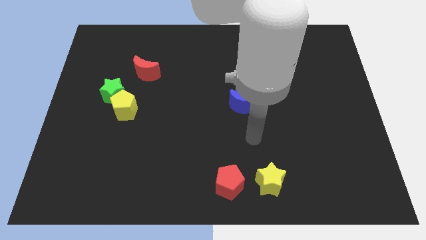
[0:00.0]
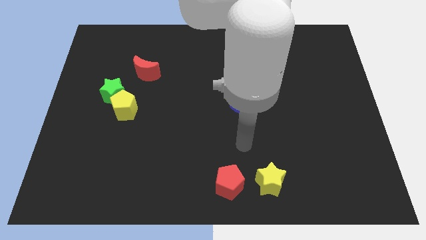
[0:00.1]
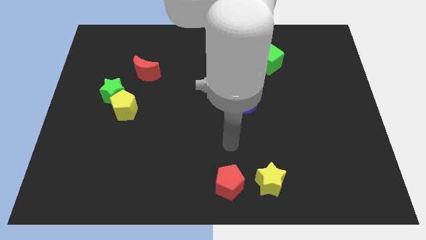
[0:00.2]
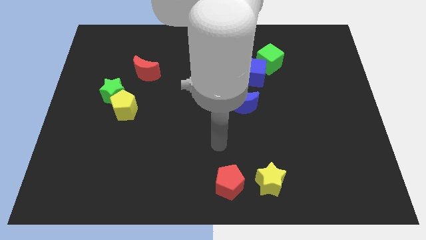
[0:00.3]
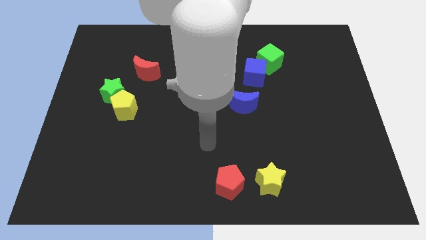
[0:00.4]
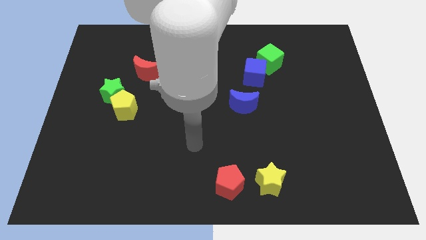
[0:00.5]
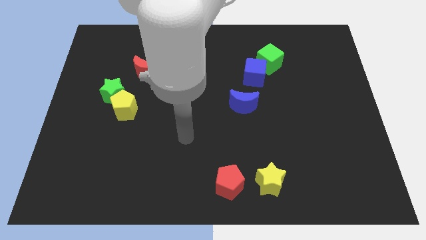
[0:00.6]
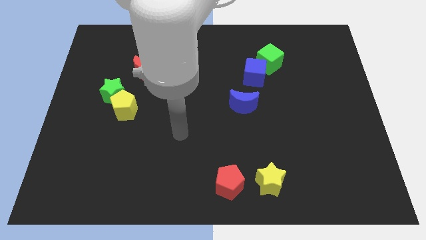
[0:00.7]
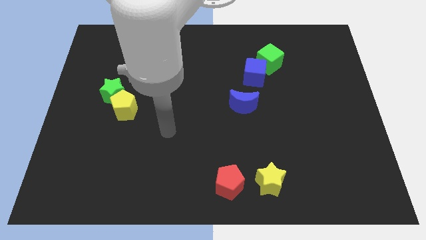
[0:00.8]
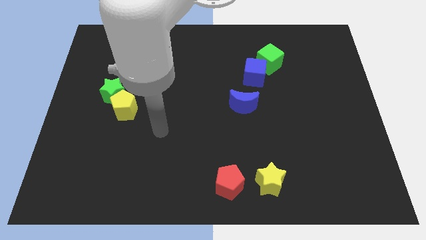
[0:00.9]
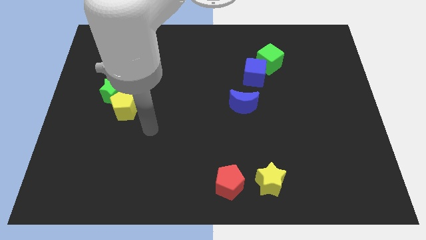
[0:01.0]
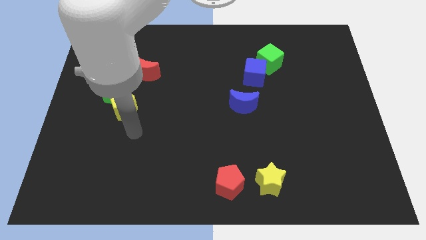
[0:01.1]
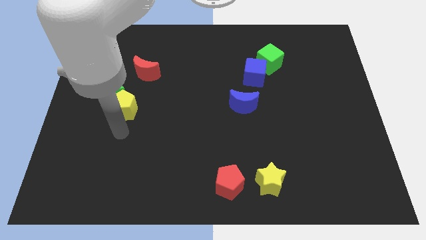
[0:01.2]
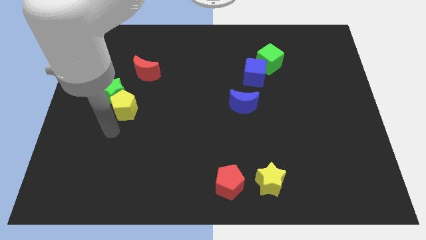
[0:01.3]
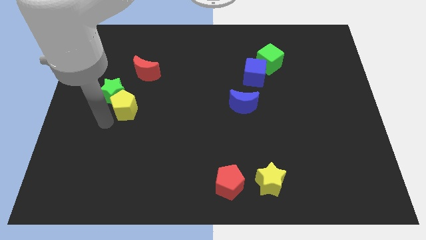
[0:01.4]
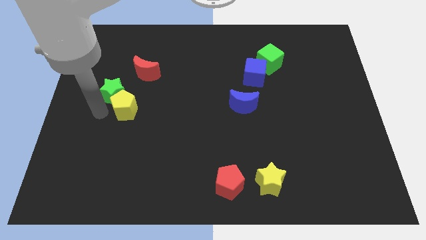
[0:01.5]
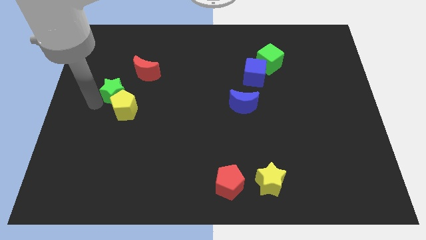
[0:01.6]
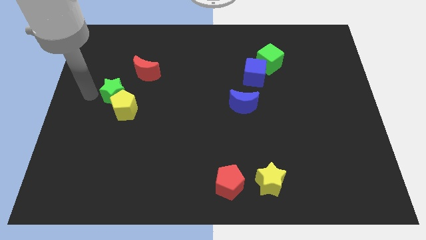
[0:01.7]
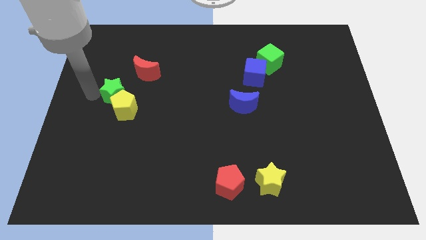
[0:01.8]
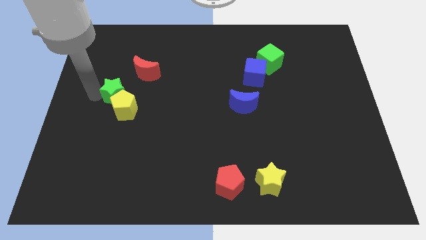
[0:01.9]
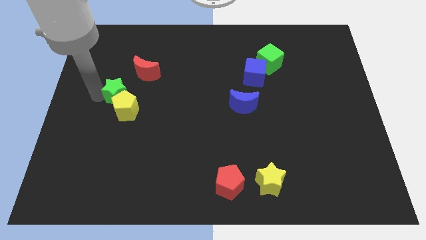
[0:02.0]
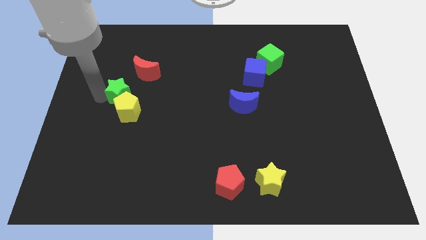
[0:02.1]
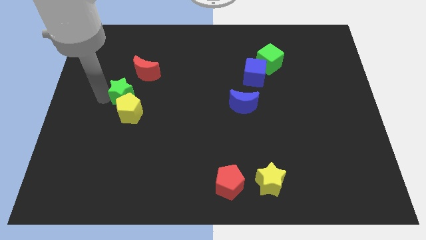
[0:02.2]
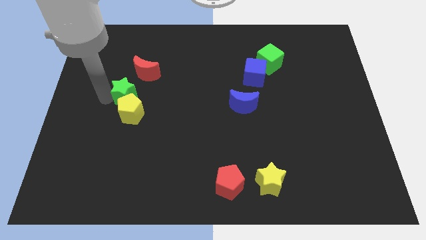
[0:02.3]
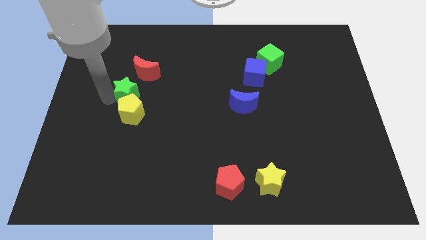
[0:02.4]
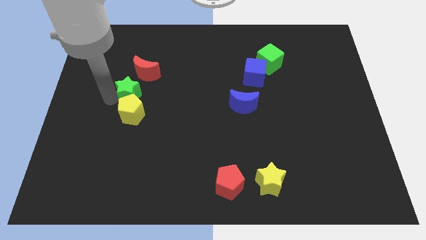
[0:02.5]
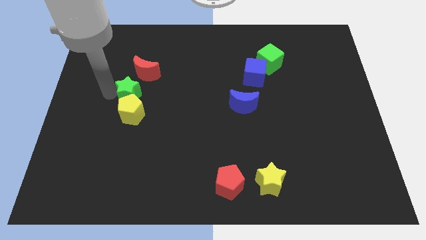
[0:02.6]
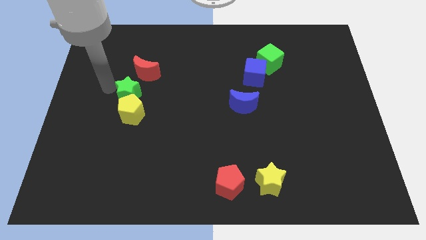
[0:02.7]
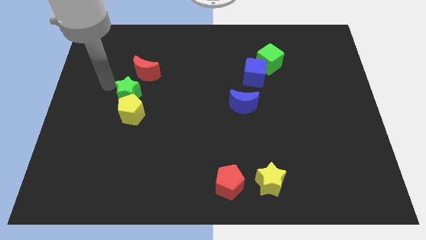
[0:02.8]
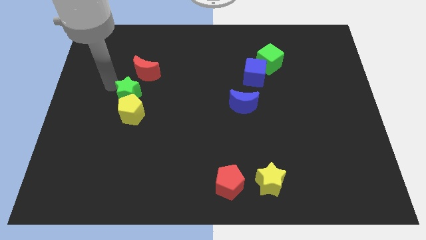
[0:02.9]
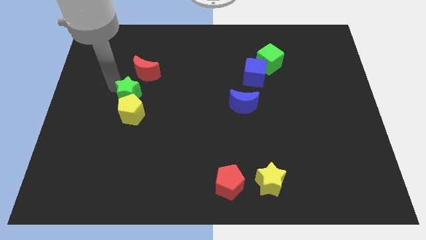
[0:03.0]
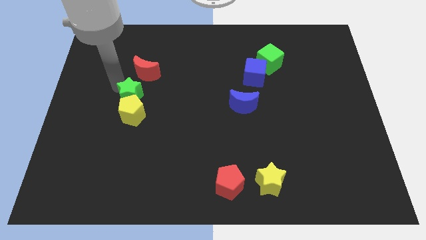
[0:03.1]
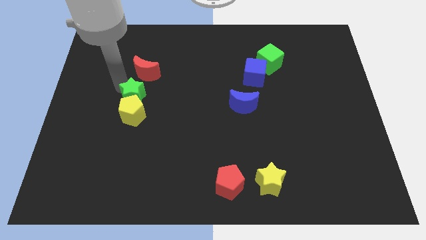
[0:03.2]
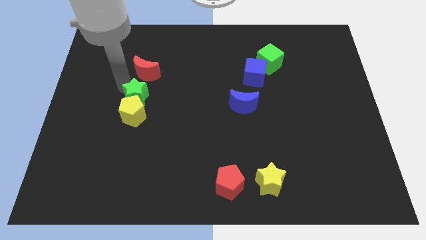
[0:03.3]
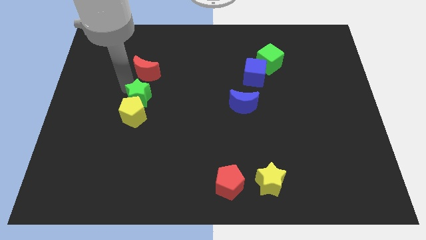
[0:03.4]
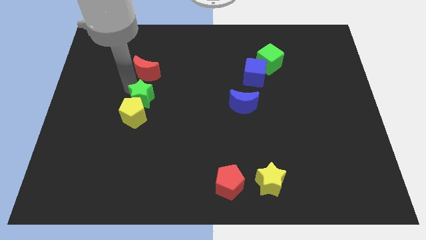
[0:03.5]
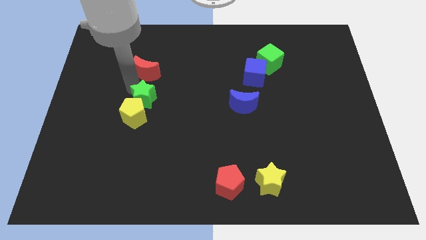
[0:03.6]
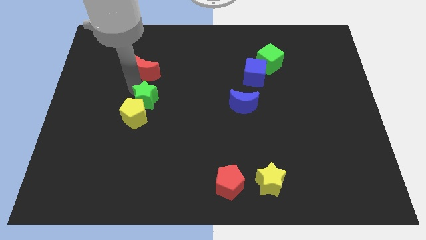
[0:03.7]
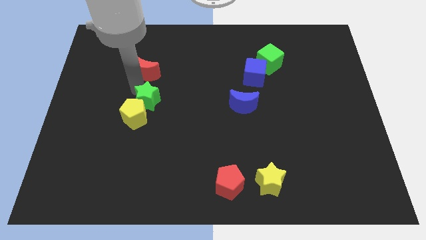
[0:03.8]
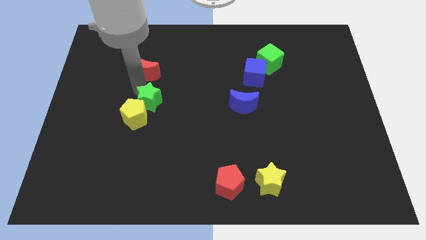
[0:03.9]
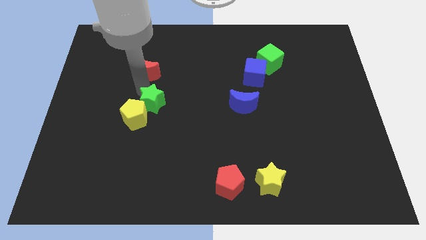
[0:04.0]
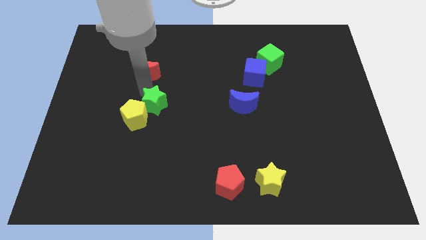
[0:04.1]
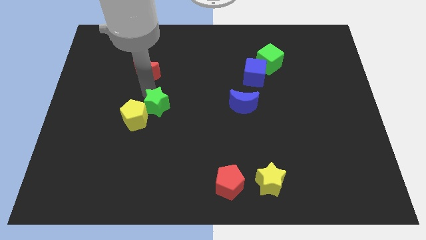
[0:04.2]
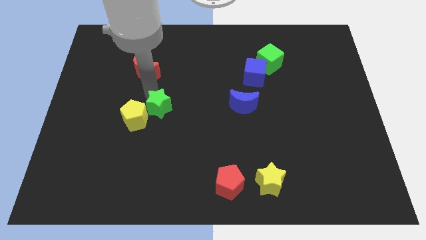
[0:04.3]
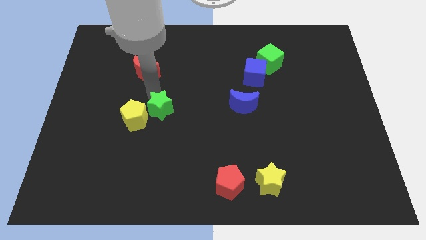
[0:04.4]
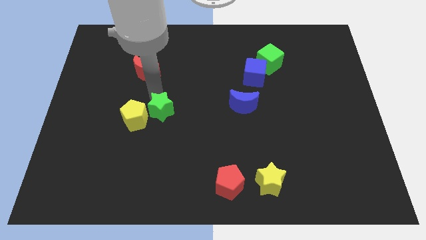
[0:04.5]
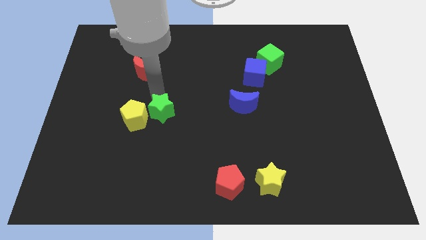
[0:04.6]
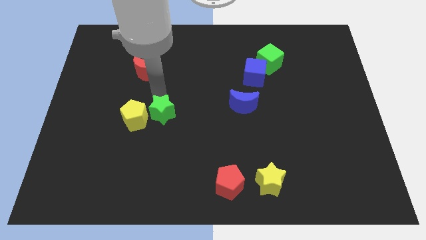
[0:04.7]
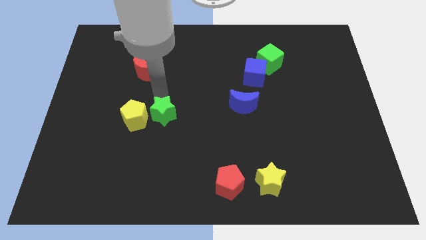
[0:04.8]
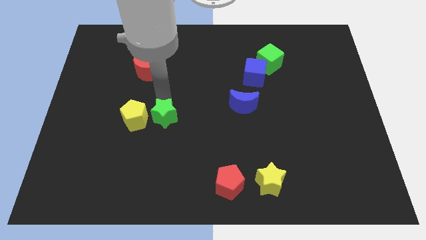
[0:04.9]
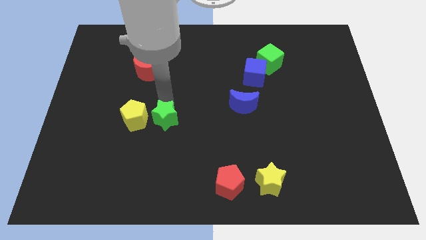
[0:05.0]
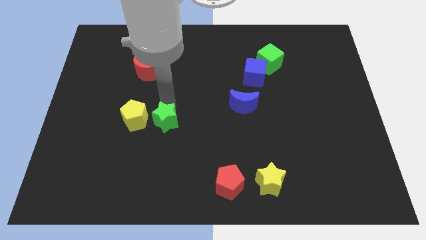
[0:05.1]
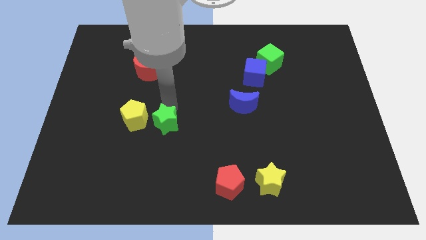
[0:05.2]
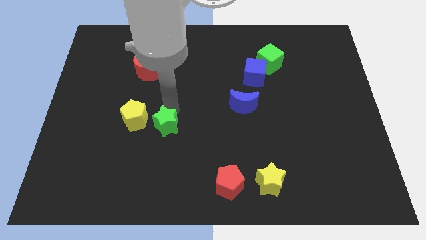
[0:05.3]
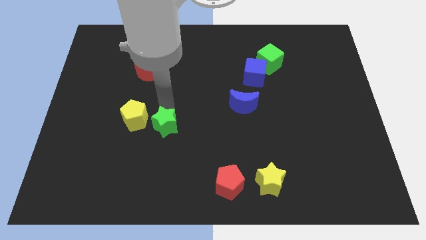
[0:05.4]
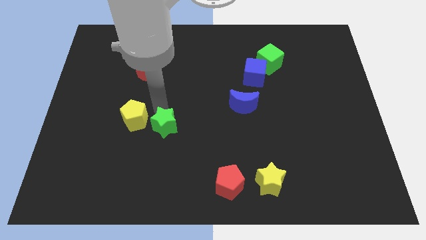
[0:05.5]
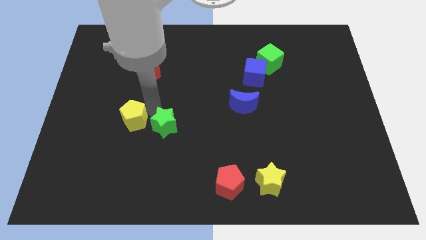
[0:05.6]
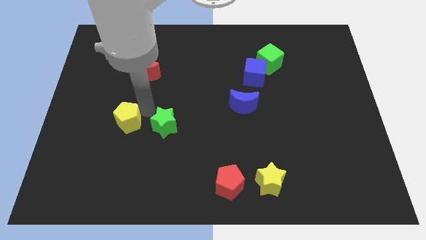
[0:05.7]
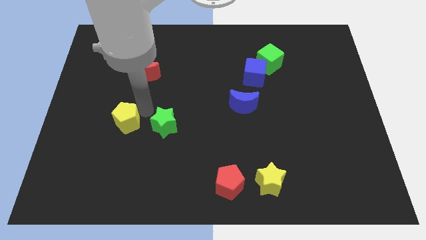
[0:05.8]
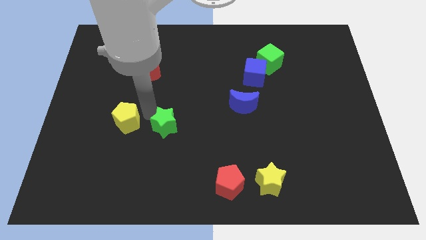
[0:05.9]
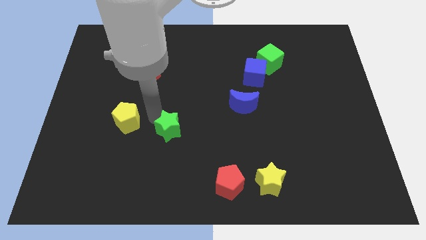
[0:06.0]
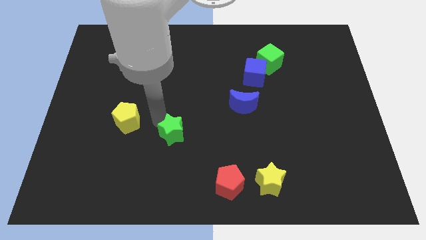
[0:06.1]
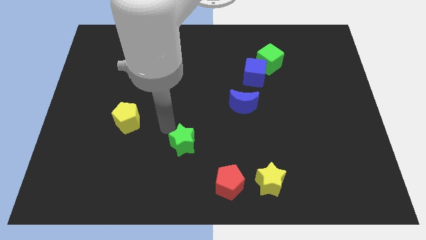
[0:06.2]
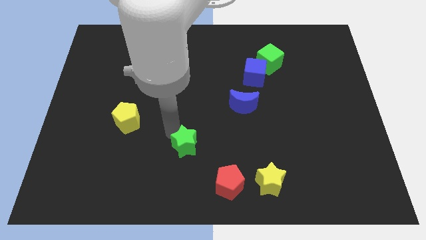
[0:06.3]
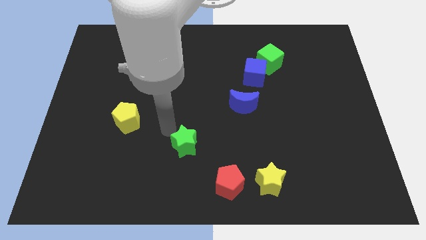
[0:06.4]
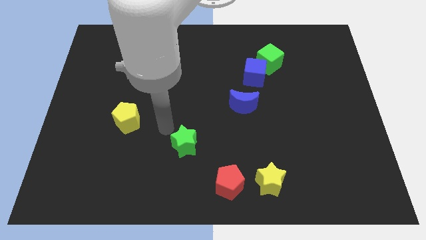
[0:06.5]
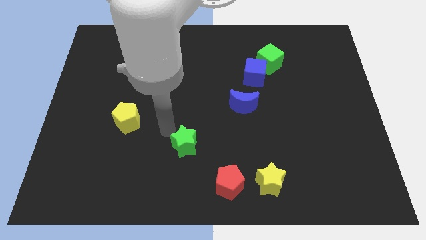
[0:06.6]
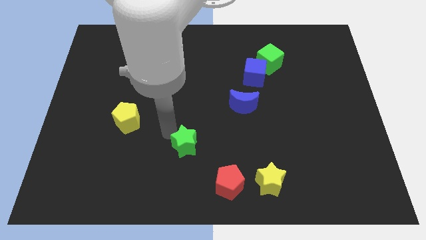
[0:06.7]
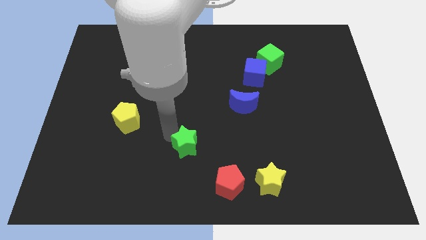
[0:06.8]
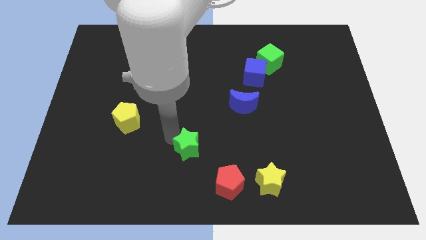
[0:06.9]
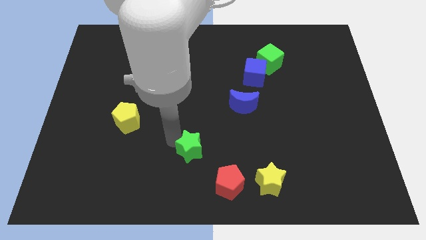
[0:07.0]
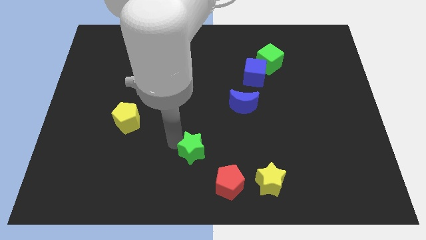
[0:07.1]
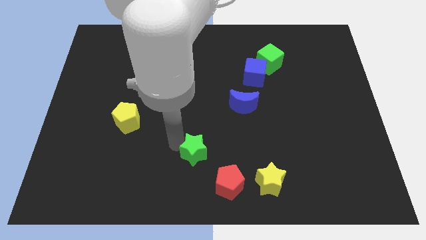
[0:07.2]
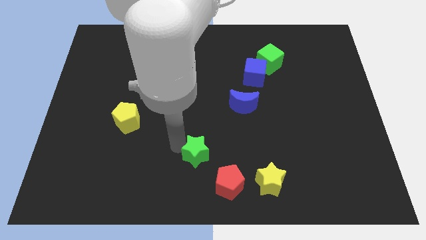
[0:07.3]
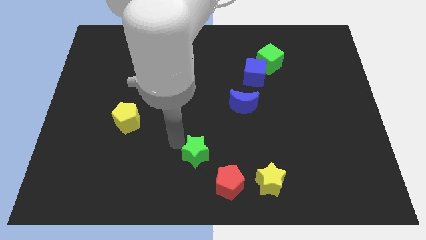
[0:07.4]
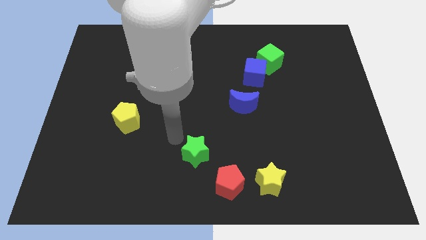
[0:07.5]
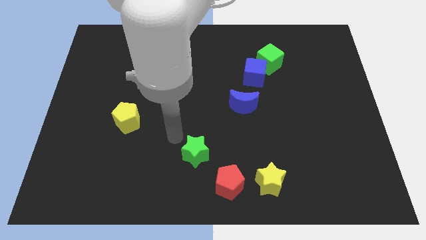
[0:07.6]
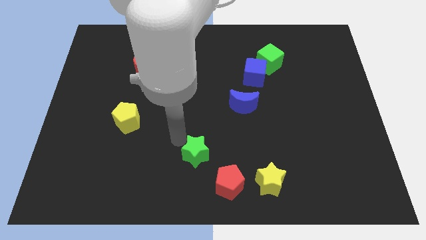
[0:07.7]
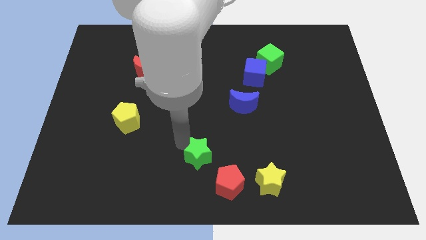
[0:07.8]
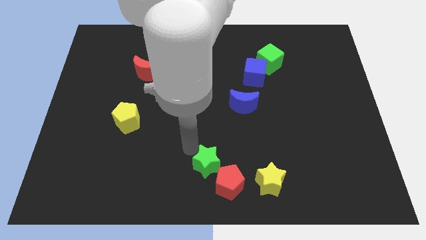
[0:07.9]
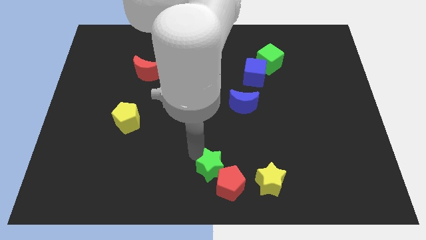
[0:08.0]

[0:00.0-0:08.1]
slide the green star next to the red pentagon
